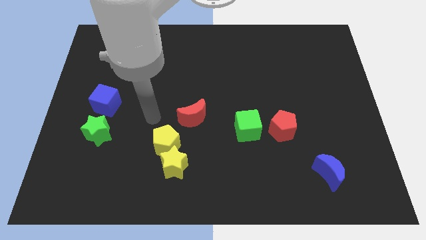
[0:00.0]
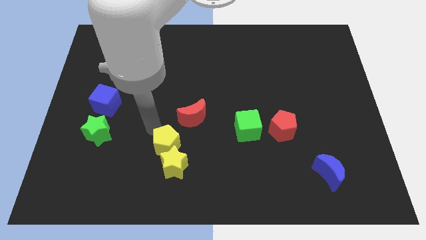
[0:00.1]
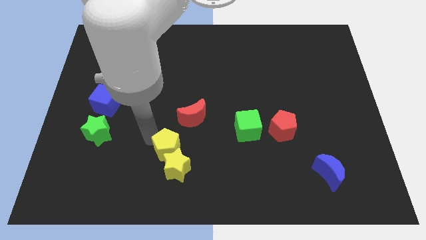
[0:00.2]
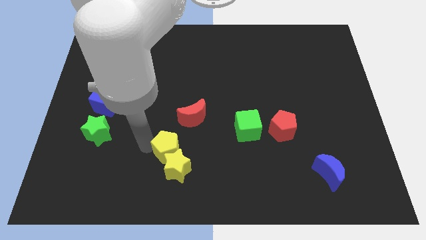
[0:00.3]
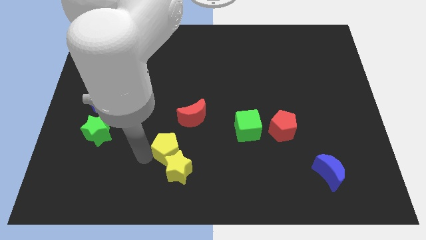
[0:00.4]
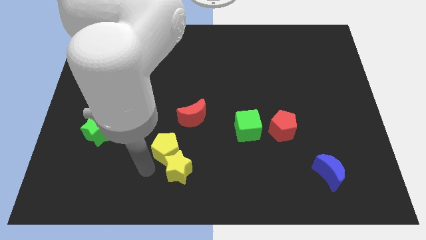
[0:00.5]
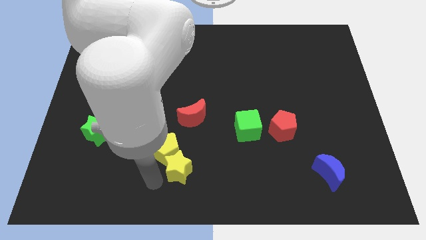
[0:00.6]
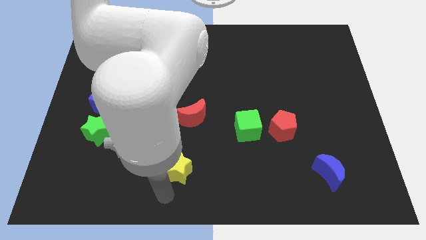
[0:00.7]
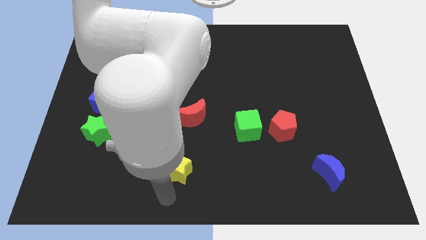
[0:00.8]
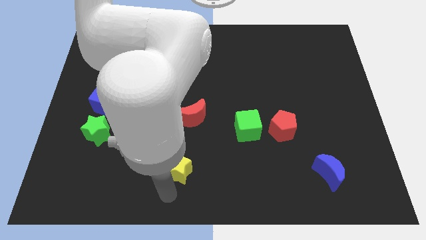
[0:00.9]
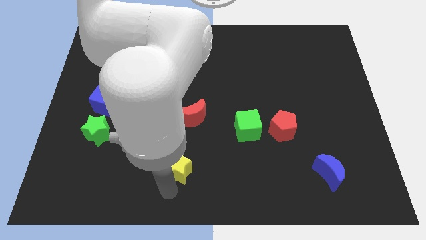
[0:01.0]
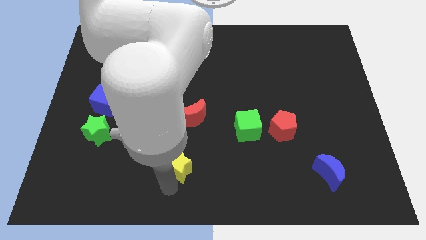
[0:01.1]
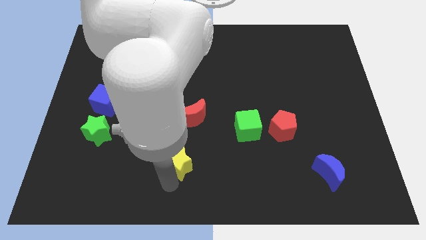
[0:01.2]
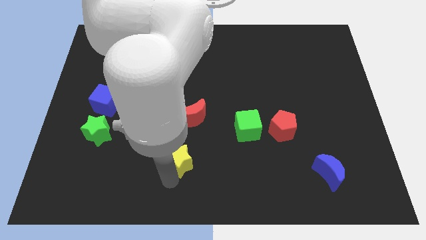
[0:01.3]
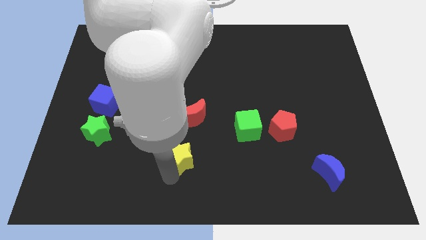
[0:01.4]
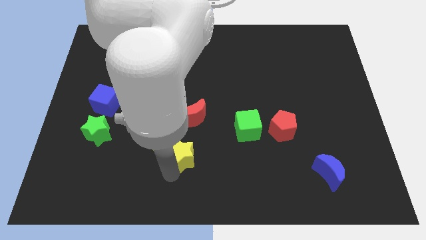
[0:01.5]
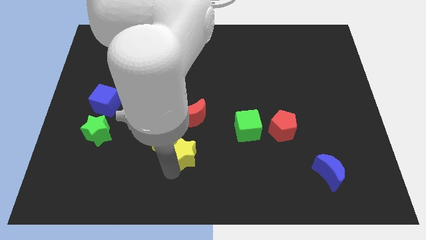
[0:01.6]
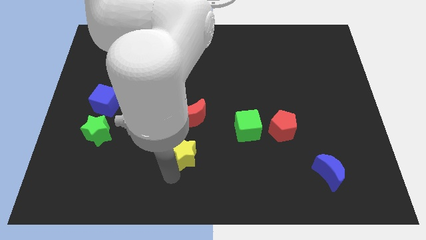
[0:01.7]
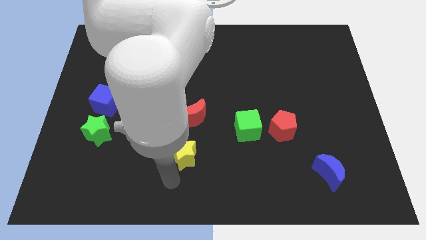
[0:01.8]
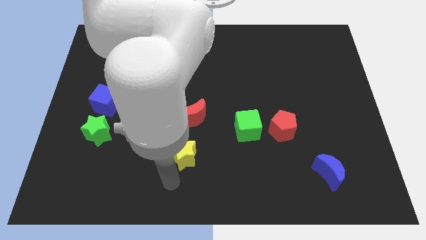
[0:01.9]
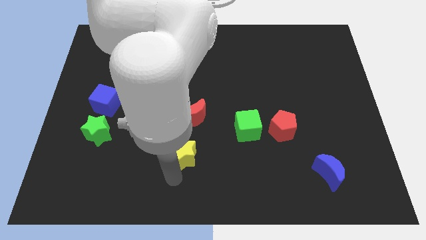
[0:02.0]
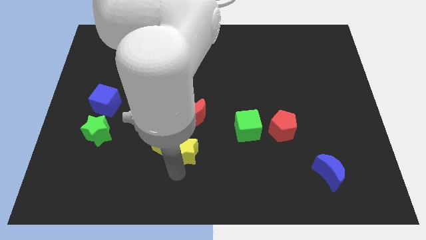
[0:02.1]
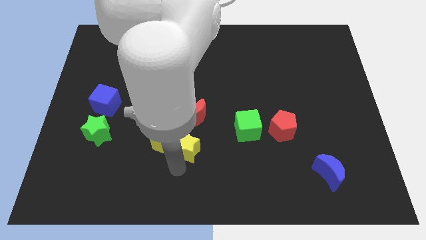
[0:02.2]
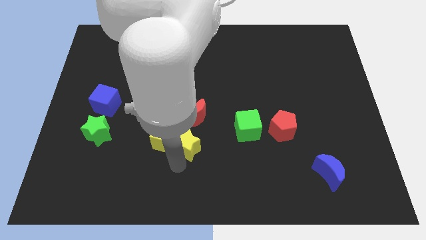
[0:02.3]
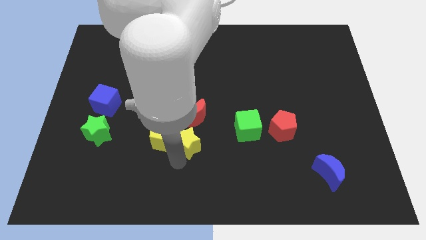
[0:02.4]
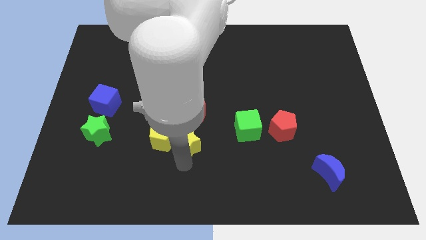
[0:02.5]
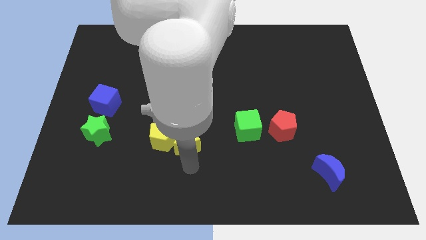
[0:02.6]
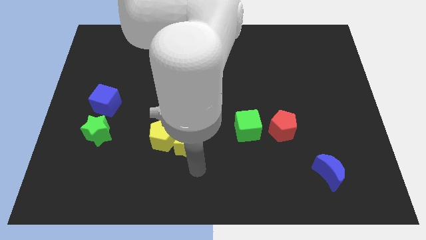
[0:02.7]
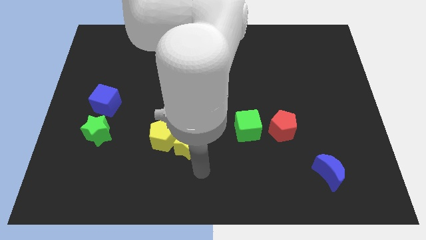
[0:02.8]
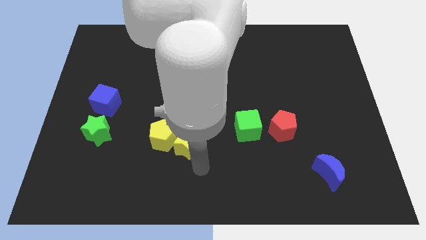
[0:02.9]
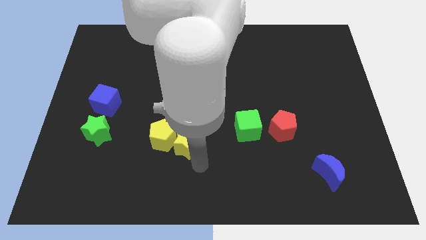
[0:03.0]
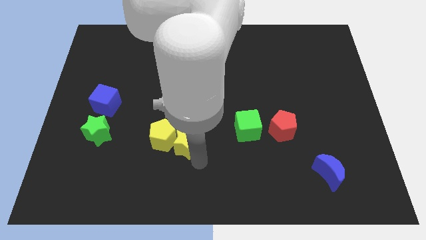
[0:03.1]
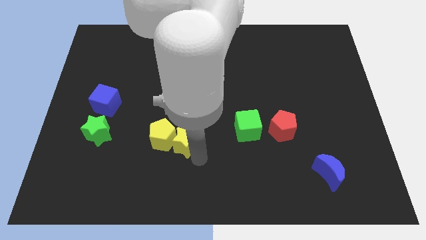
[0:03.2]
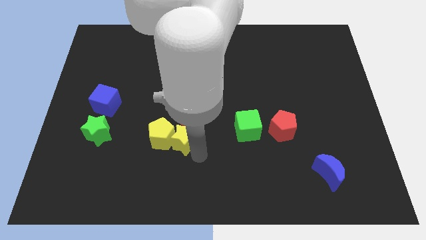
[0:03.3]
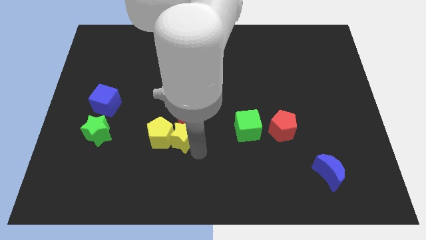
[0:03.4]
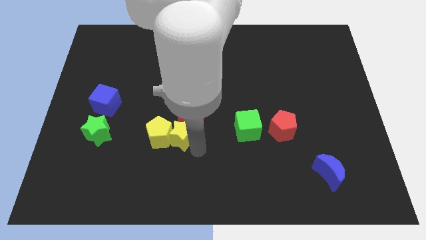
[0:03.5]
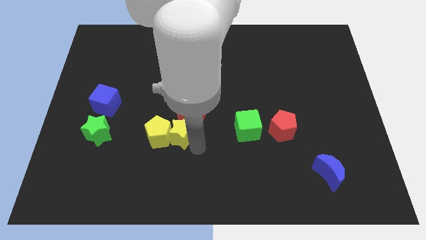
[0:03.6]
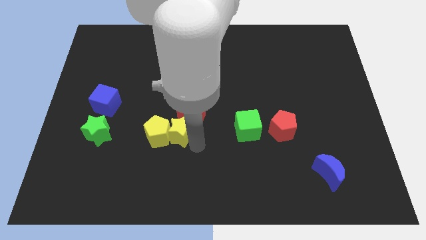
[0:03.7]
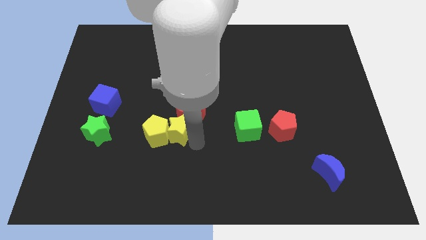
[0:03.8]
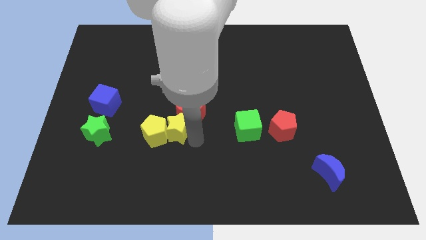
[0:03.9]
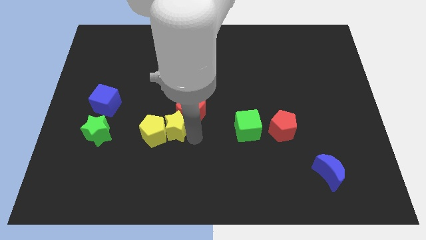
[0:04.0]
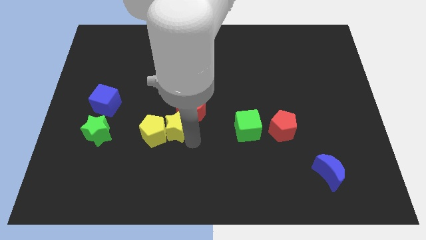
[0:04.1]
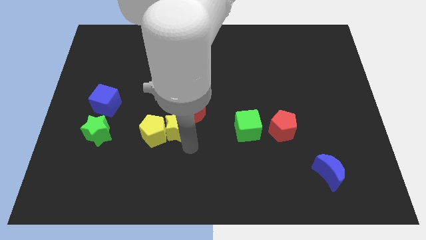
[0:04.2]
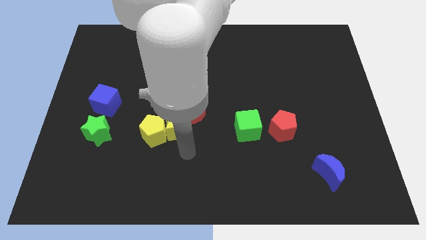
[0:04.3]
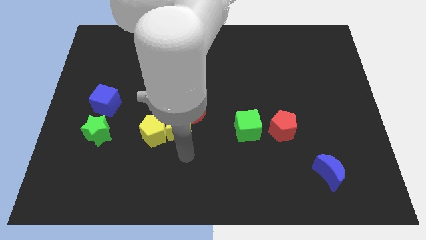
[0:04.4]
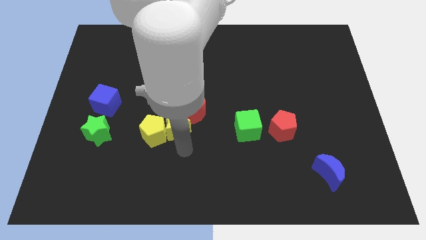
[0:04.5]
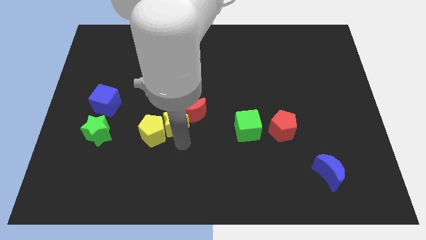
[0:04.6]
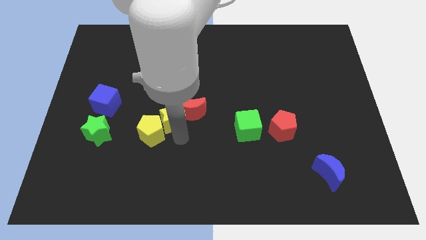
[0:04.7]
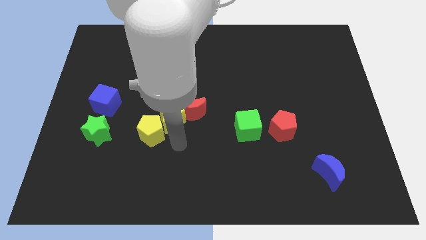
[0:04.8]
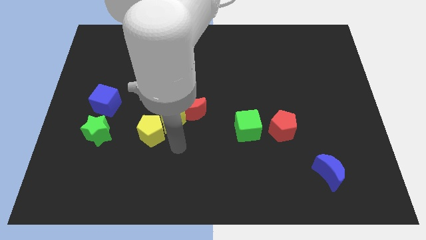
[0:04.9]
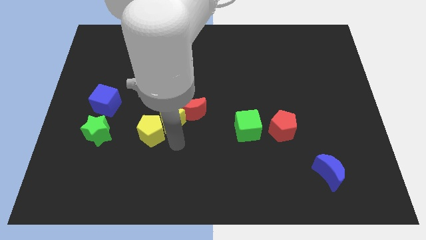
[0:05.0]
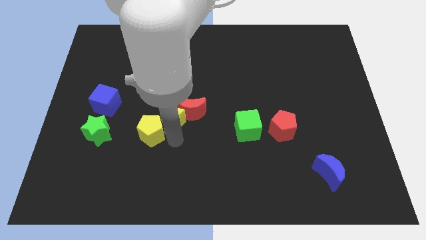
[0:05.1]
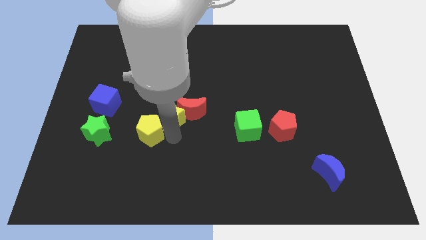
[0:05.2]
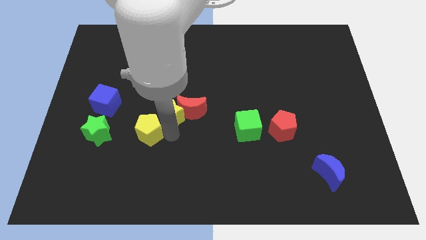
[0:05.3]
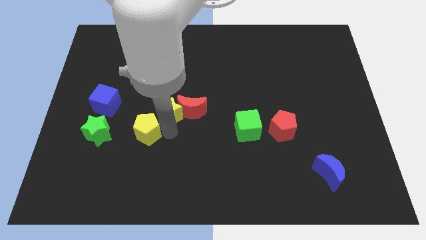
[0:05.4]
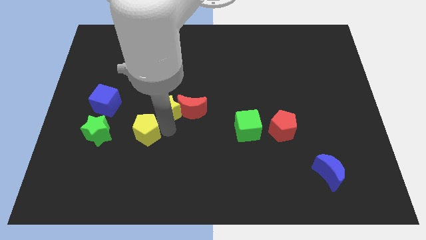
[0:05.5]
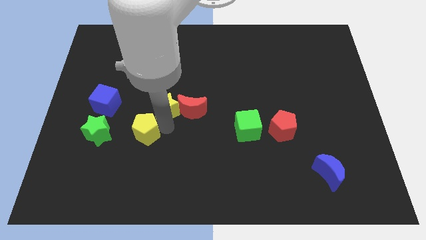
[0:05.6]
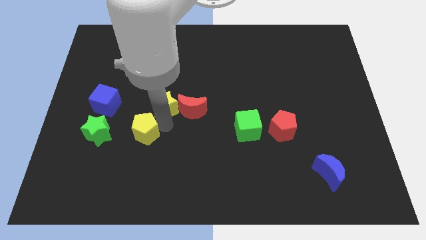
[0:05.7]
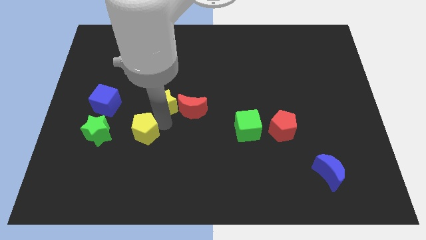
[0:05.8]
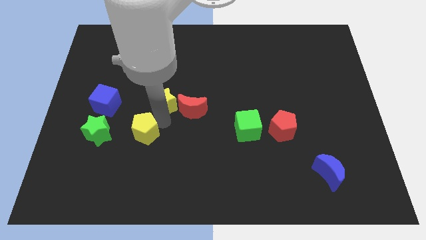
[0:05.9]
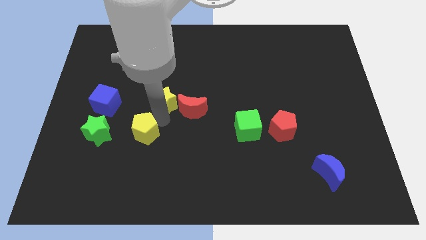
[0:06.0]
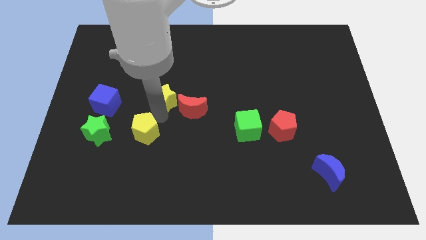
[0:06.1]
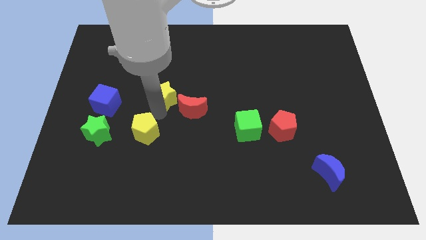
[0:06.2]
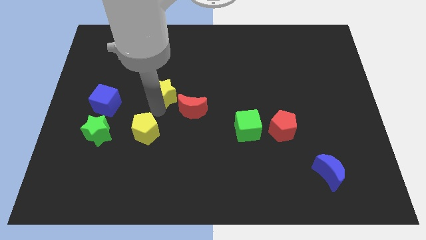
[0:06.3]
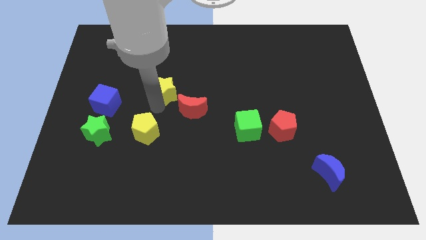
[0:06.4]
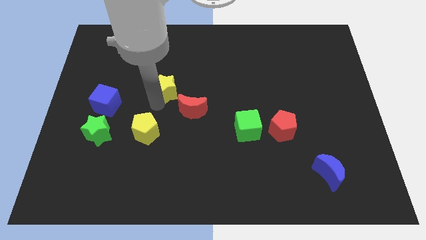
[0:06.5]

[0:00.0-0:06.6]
slide the yellow star up

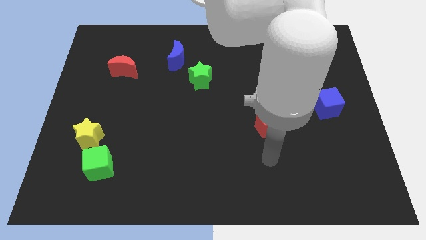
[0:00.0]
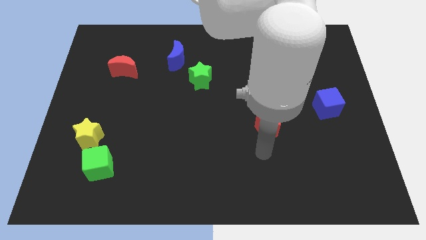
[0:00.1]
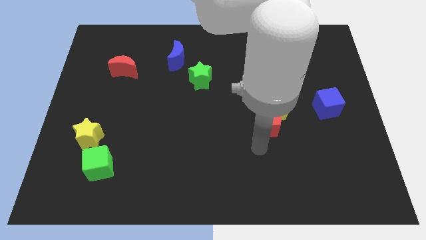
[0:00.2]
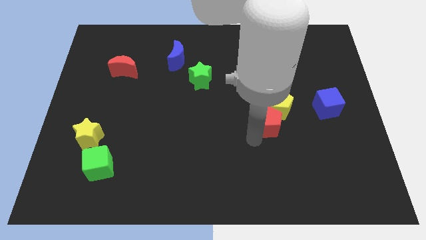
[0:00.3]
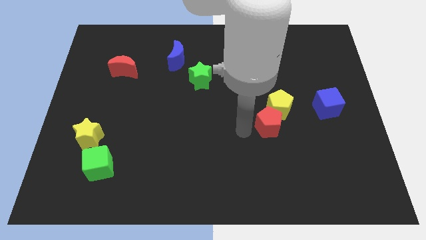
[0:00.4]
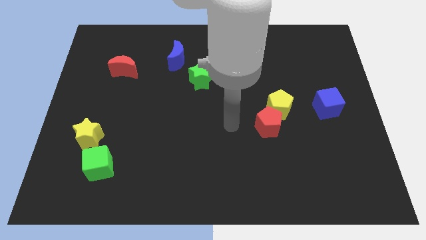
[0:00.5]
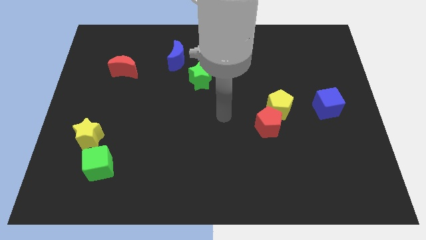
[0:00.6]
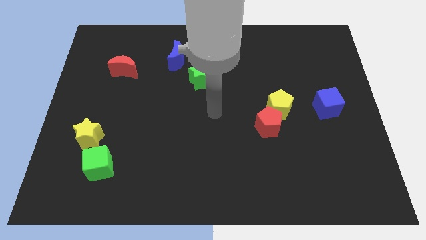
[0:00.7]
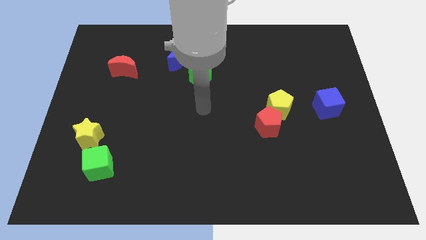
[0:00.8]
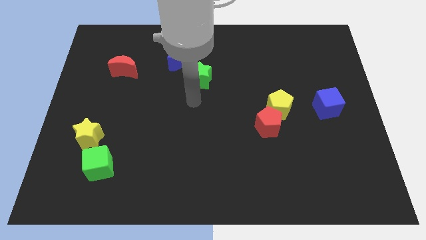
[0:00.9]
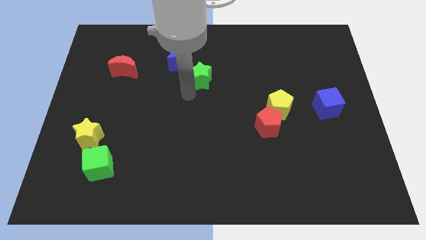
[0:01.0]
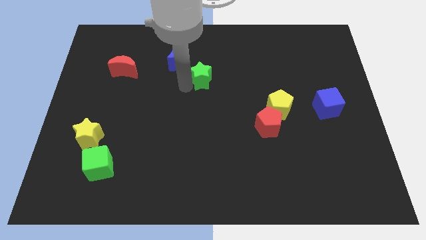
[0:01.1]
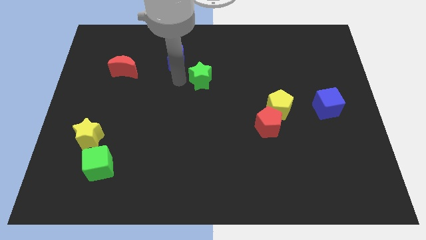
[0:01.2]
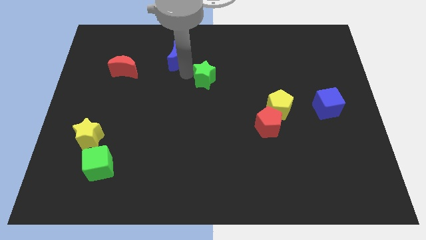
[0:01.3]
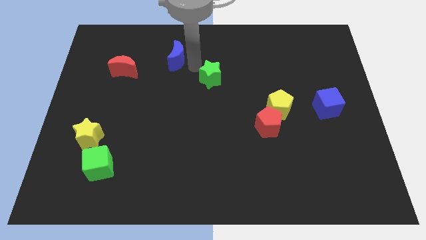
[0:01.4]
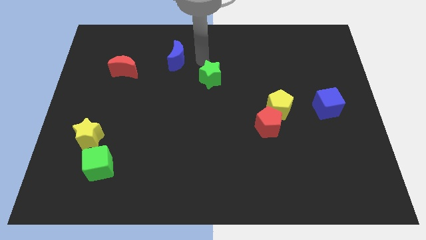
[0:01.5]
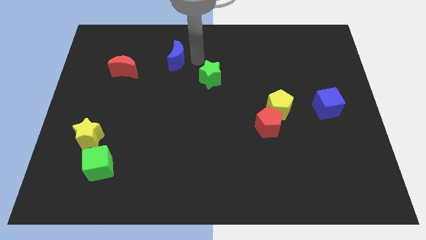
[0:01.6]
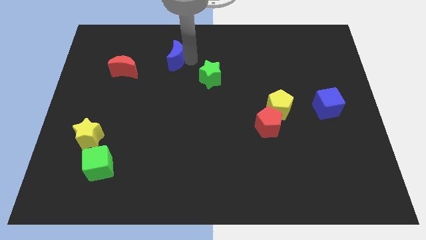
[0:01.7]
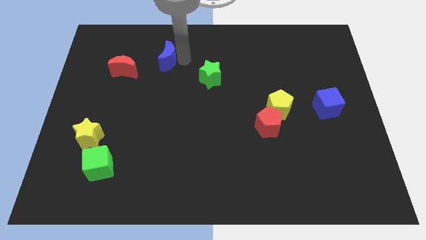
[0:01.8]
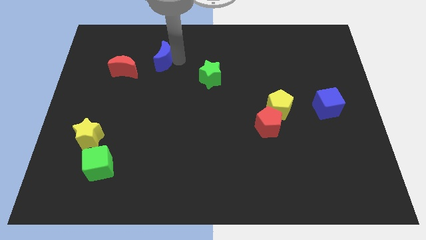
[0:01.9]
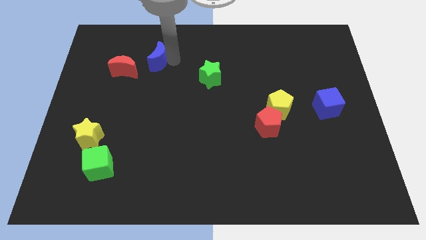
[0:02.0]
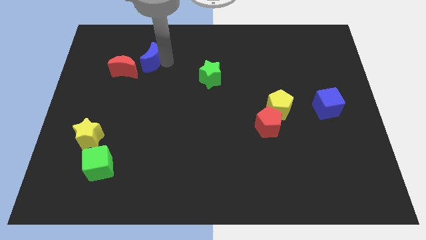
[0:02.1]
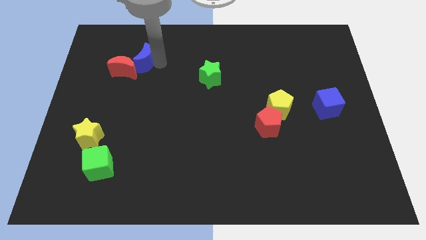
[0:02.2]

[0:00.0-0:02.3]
push the blue moon to the left a little bit
